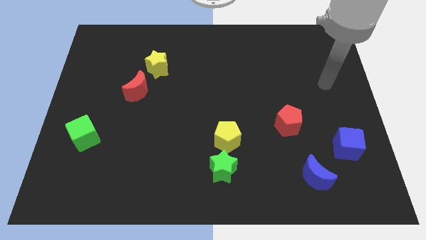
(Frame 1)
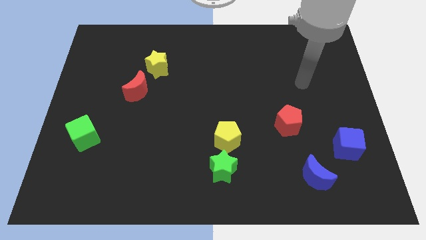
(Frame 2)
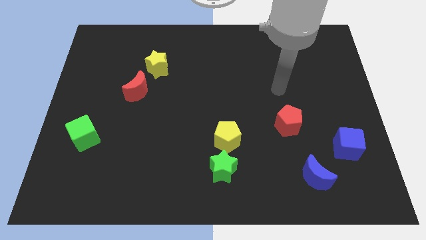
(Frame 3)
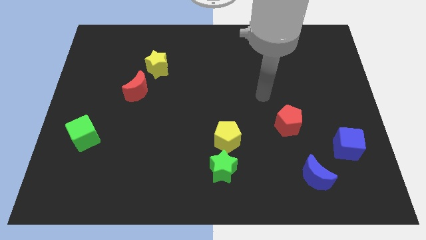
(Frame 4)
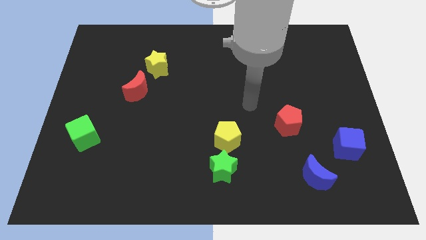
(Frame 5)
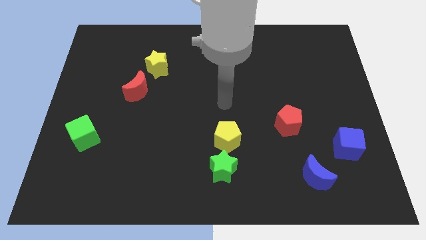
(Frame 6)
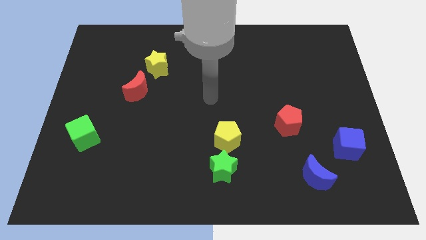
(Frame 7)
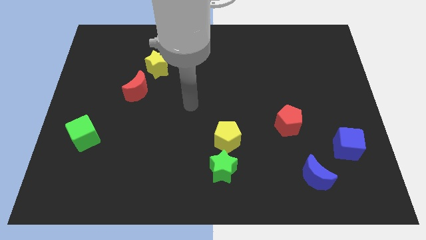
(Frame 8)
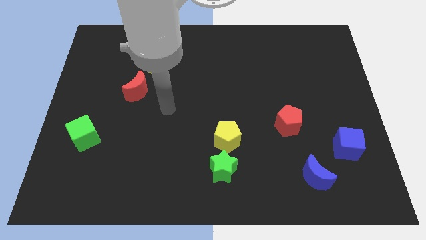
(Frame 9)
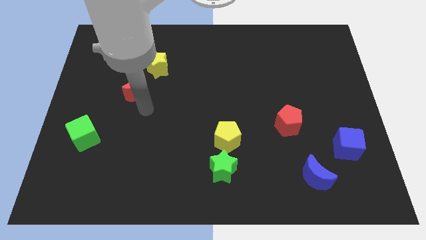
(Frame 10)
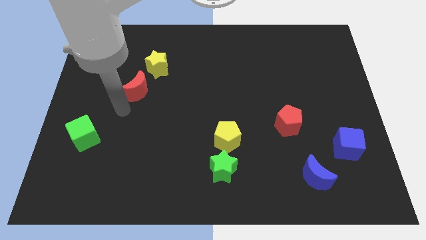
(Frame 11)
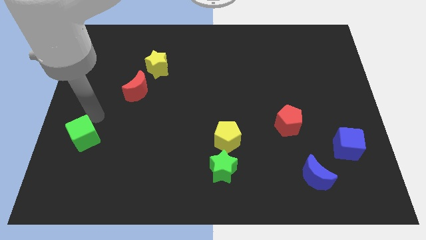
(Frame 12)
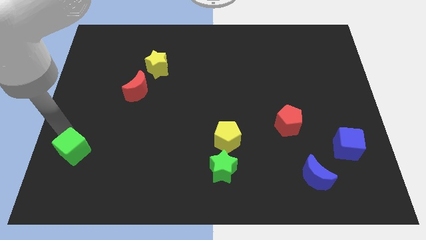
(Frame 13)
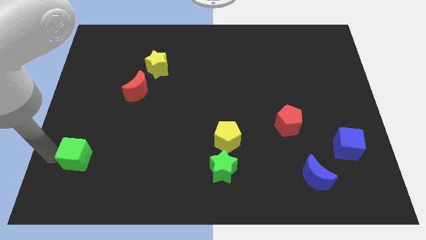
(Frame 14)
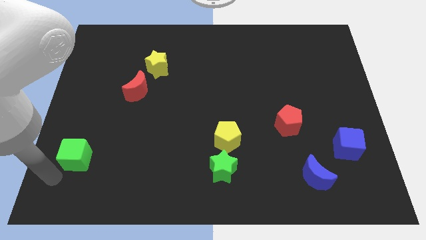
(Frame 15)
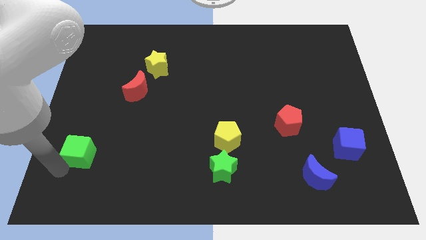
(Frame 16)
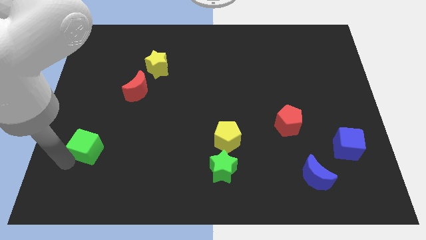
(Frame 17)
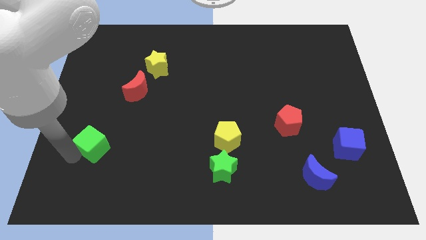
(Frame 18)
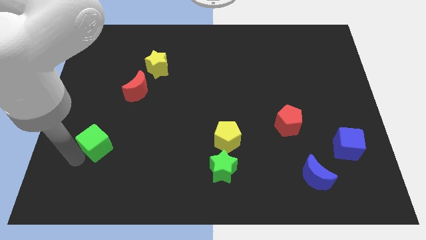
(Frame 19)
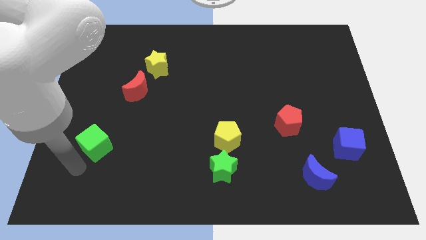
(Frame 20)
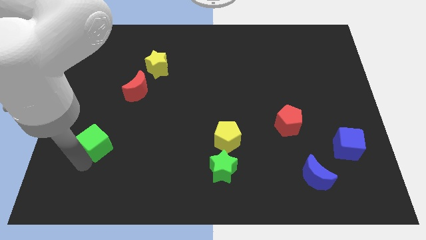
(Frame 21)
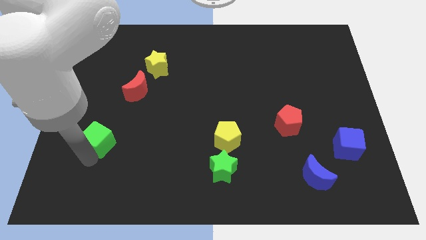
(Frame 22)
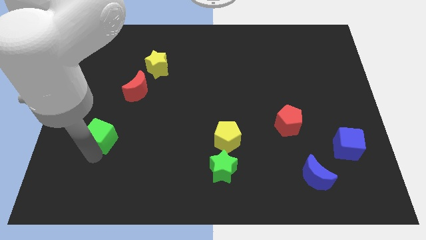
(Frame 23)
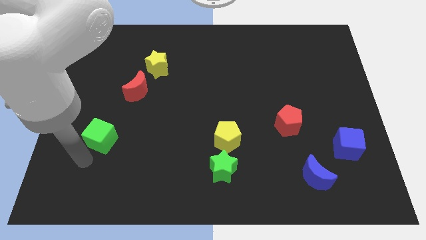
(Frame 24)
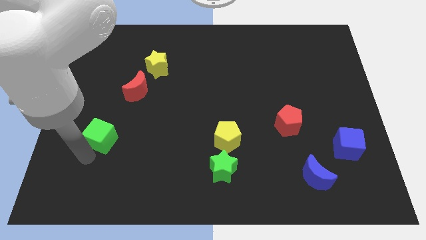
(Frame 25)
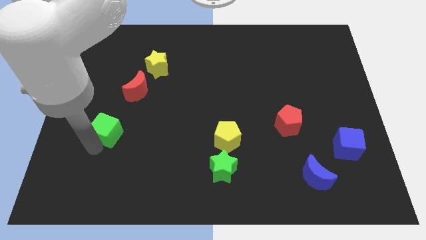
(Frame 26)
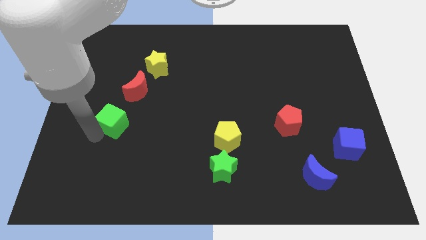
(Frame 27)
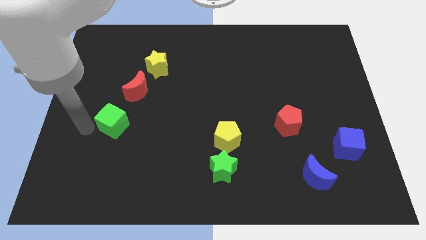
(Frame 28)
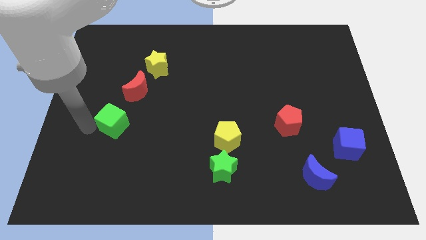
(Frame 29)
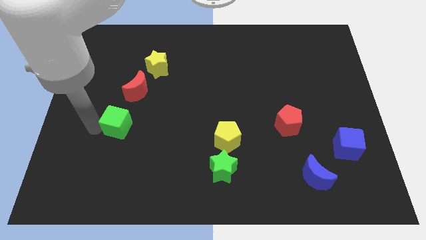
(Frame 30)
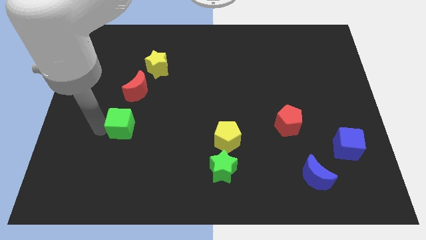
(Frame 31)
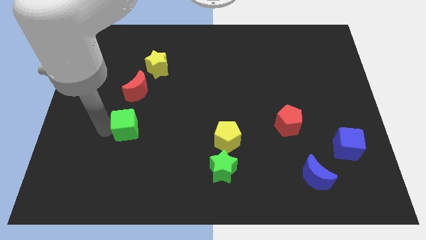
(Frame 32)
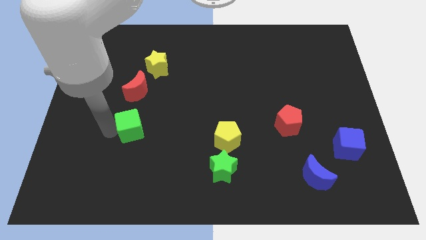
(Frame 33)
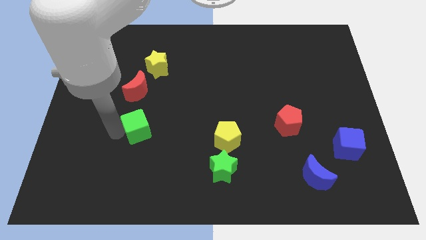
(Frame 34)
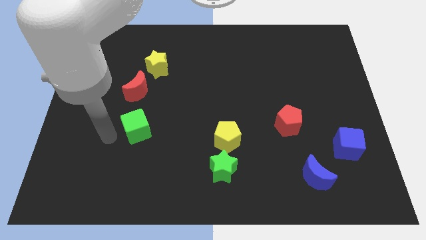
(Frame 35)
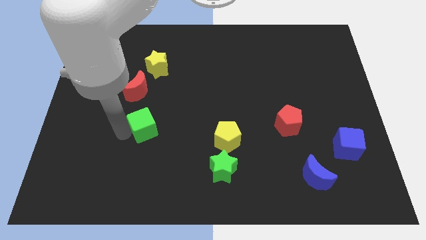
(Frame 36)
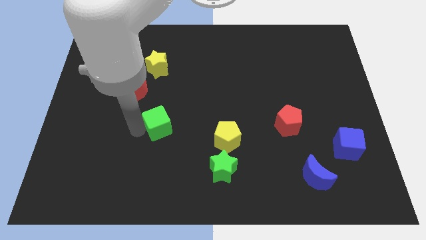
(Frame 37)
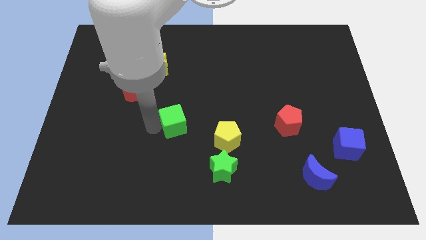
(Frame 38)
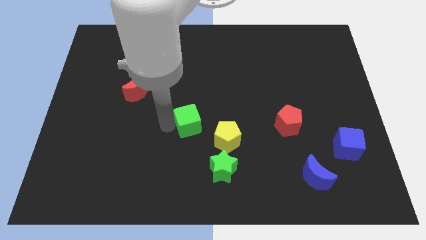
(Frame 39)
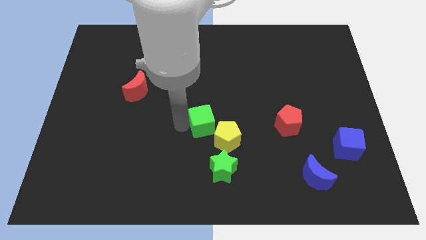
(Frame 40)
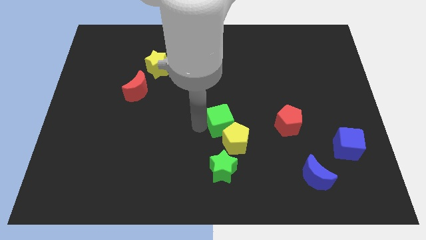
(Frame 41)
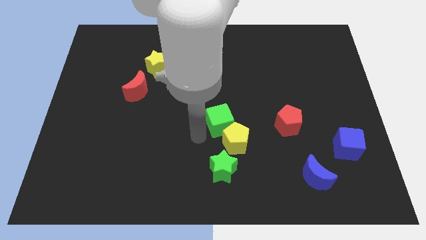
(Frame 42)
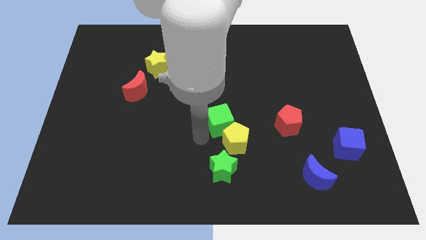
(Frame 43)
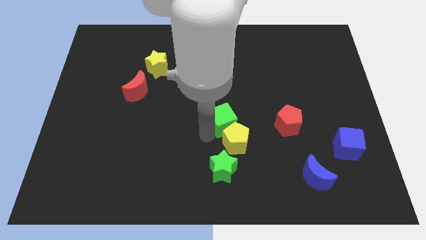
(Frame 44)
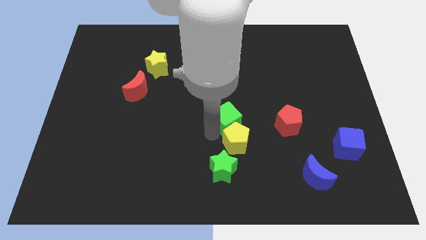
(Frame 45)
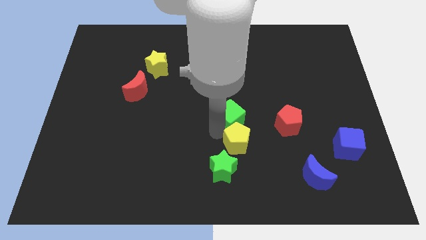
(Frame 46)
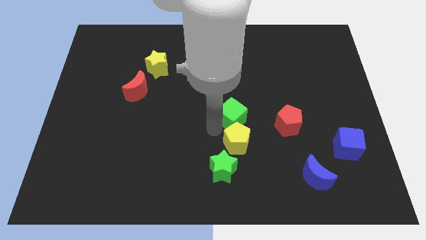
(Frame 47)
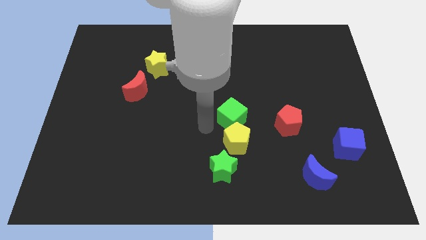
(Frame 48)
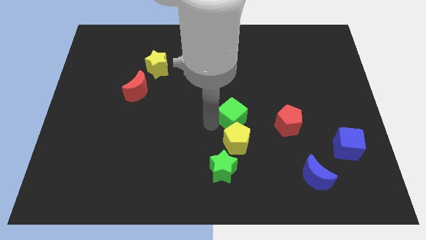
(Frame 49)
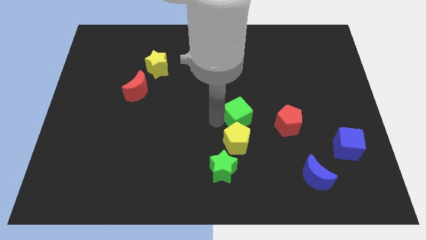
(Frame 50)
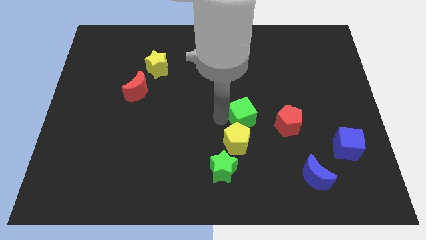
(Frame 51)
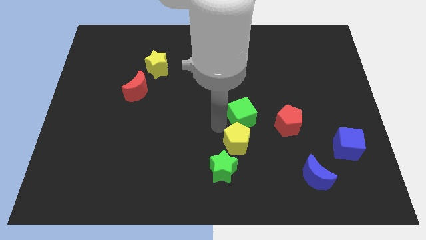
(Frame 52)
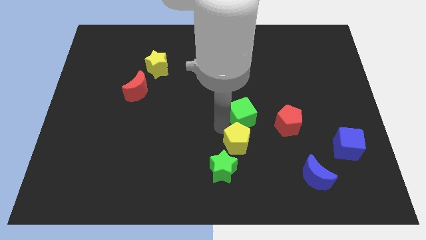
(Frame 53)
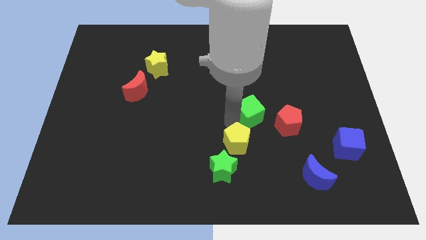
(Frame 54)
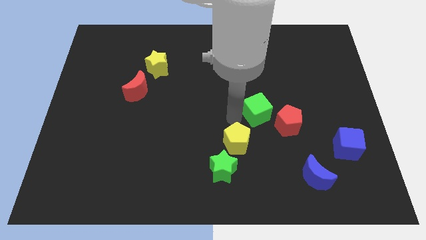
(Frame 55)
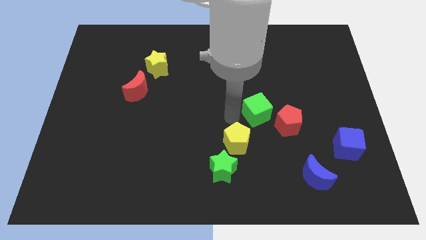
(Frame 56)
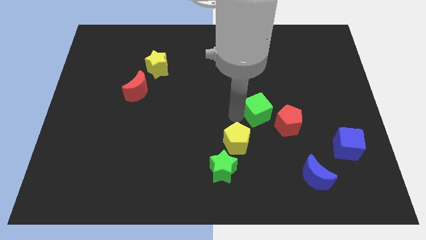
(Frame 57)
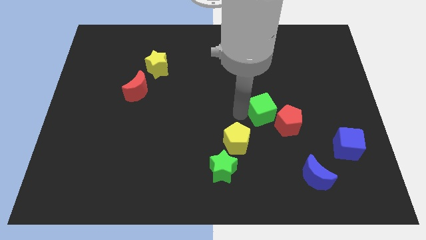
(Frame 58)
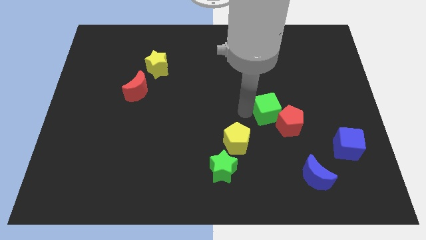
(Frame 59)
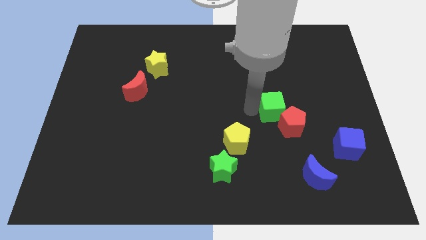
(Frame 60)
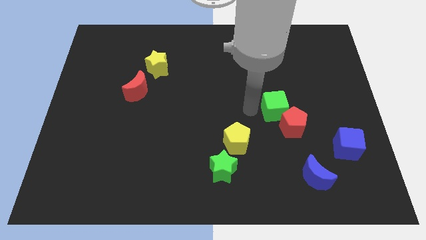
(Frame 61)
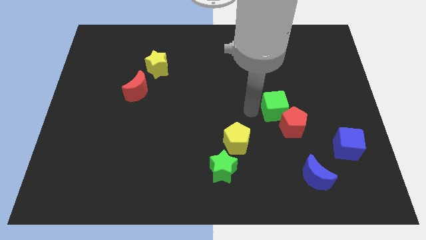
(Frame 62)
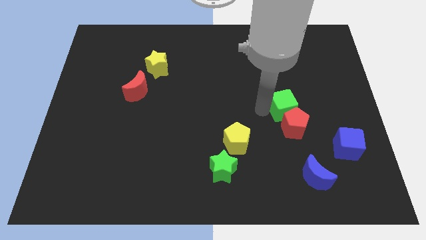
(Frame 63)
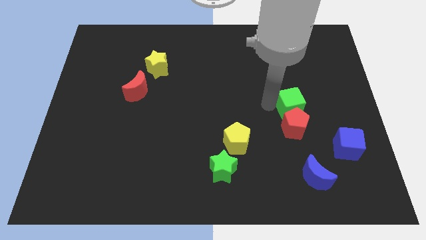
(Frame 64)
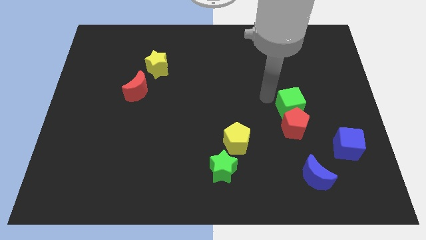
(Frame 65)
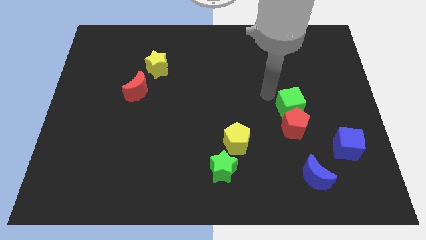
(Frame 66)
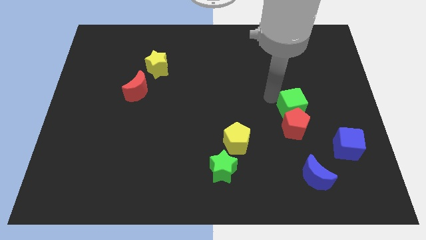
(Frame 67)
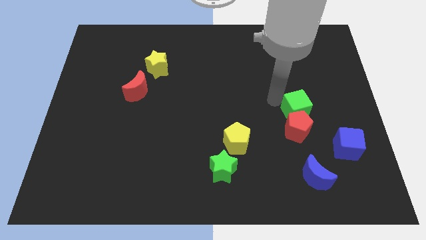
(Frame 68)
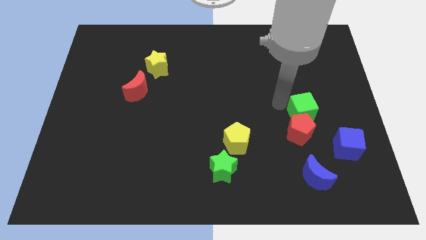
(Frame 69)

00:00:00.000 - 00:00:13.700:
push the green cube to the top left side of the blue cube
